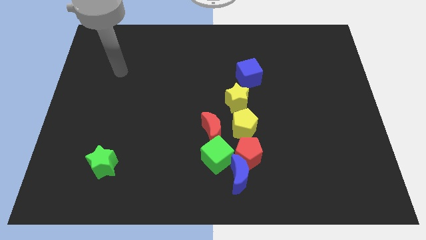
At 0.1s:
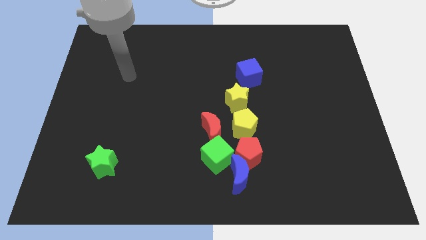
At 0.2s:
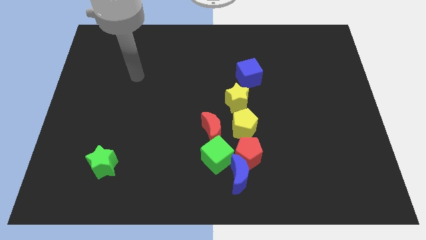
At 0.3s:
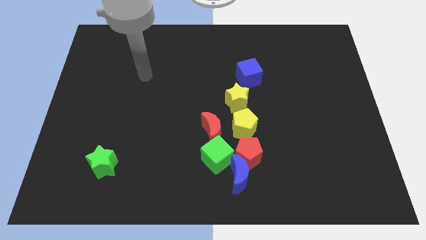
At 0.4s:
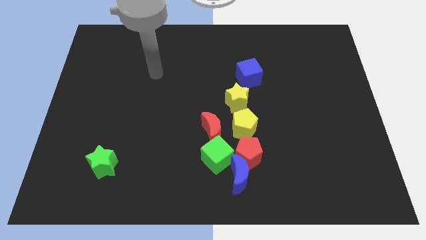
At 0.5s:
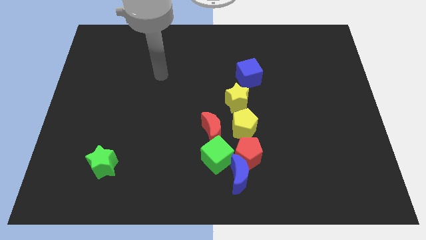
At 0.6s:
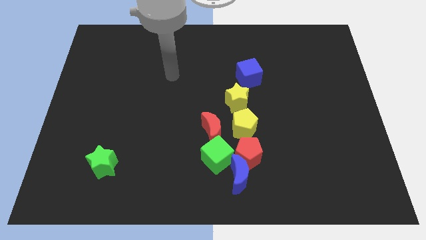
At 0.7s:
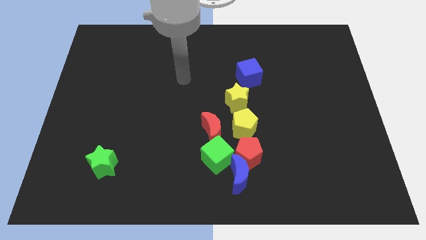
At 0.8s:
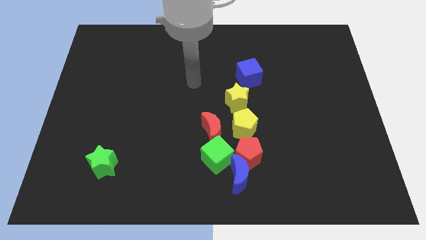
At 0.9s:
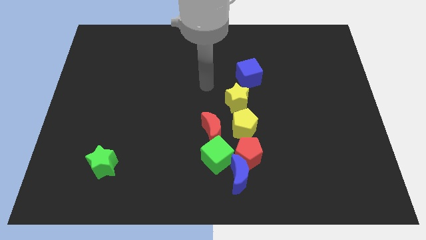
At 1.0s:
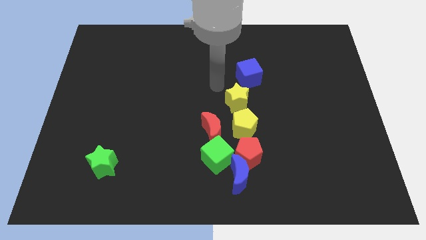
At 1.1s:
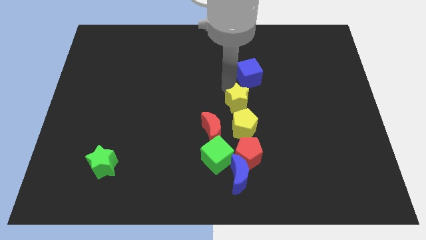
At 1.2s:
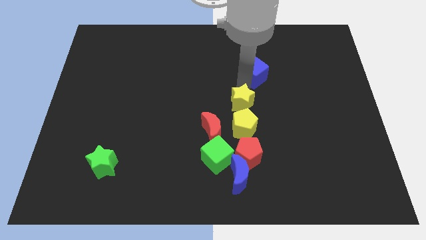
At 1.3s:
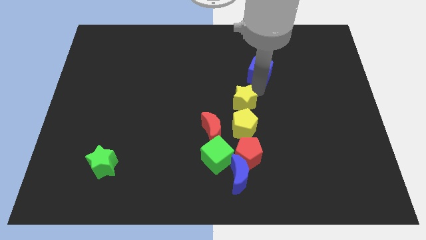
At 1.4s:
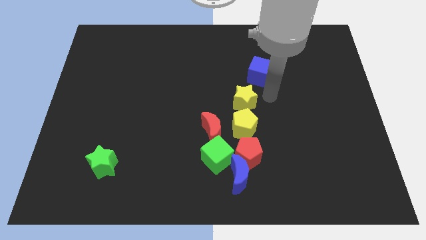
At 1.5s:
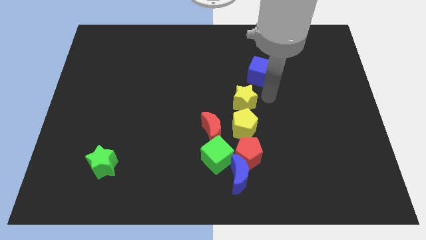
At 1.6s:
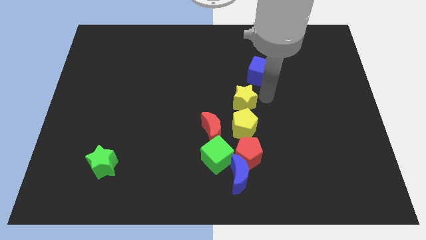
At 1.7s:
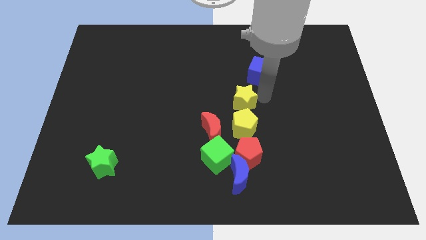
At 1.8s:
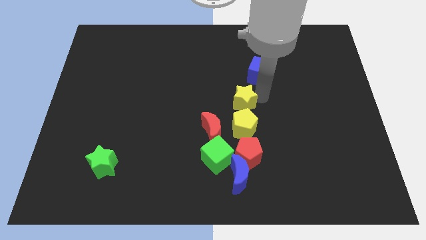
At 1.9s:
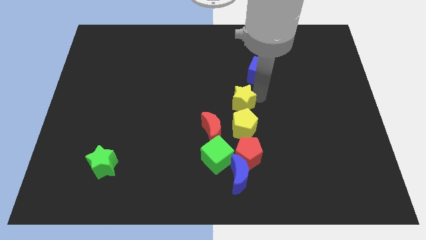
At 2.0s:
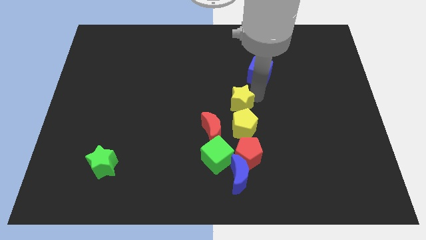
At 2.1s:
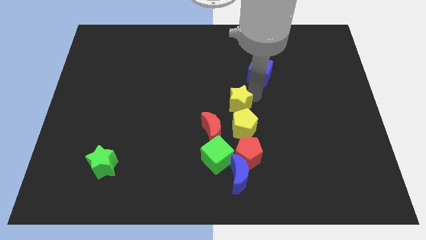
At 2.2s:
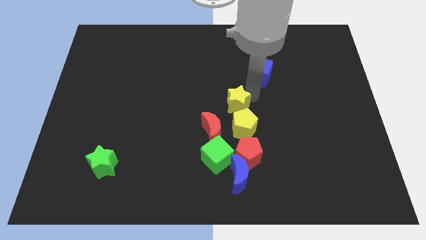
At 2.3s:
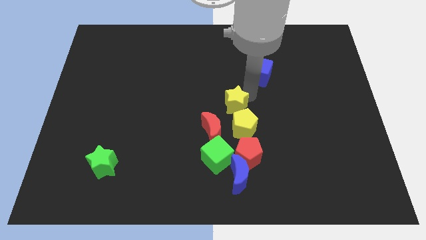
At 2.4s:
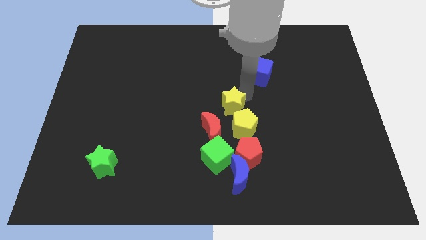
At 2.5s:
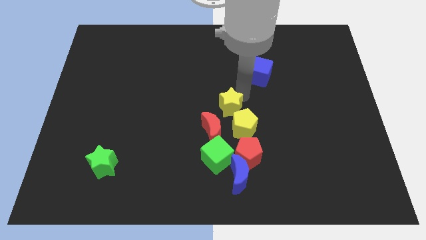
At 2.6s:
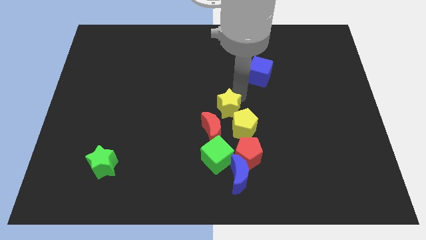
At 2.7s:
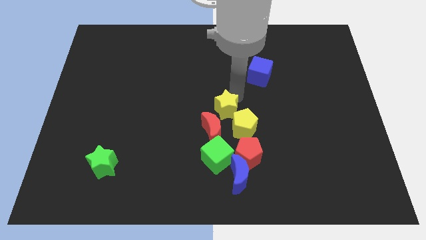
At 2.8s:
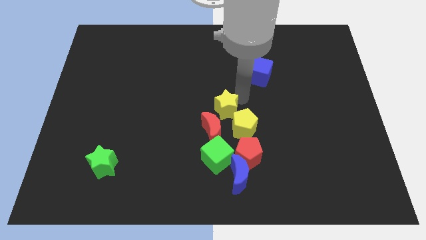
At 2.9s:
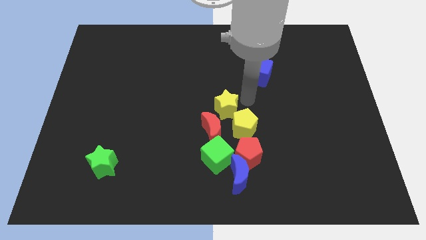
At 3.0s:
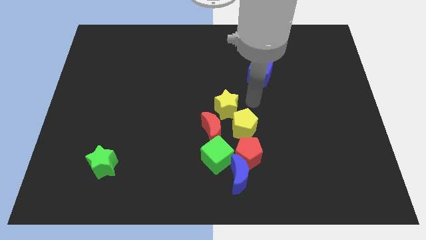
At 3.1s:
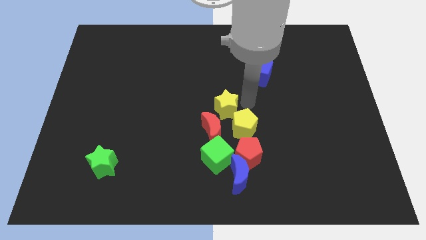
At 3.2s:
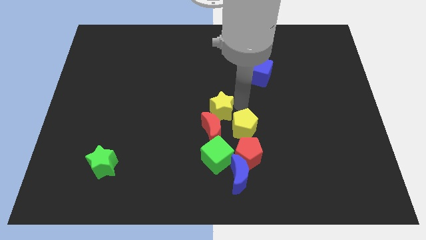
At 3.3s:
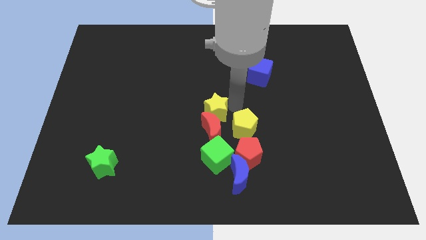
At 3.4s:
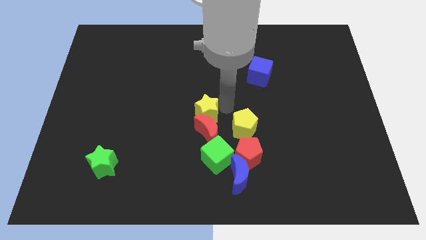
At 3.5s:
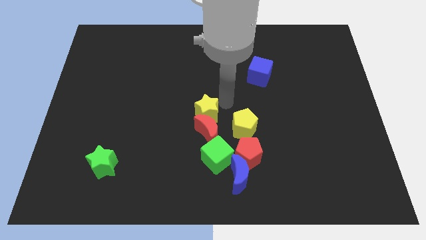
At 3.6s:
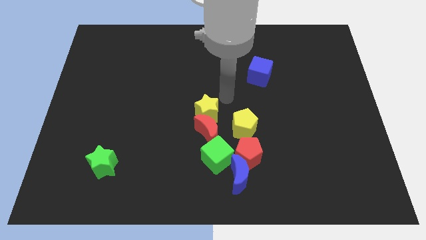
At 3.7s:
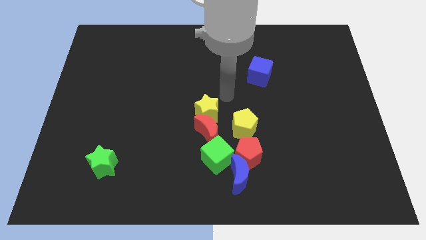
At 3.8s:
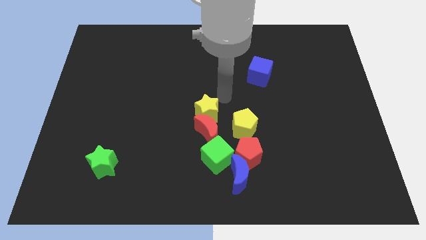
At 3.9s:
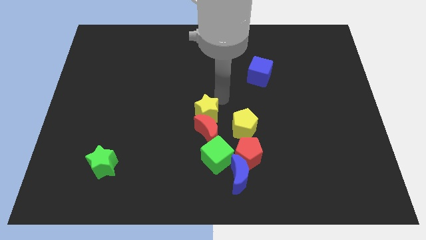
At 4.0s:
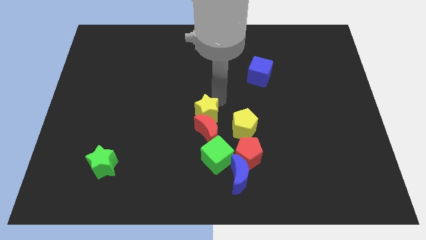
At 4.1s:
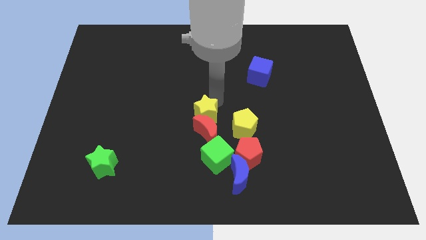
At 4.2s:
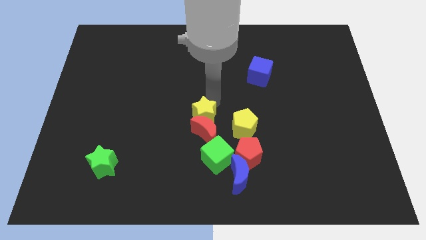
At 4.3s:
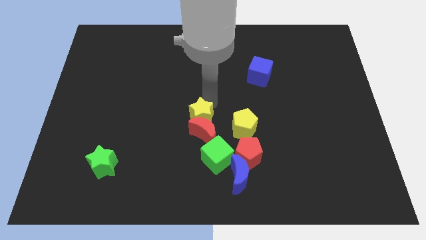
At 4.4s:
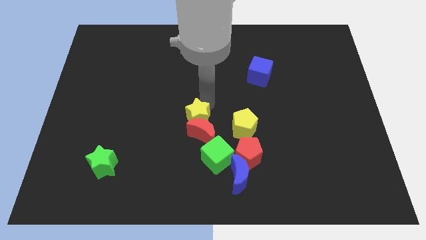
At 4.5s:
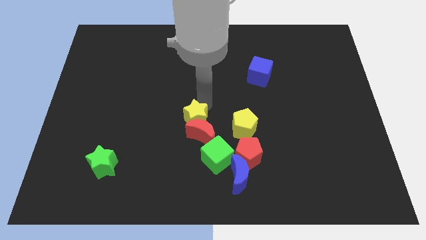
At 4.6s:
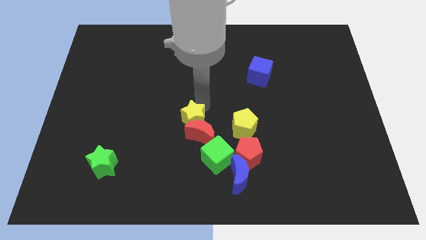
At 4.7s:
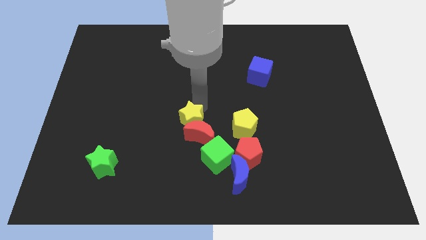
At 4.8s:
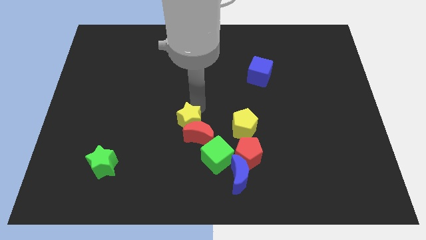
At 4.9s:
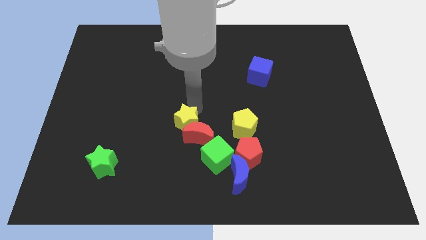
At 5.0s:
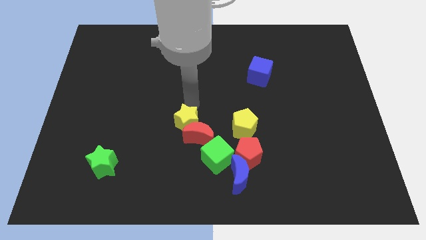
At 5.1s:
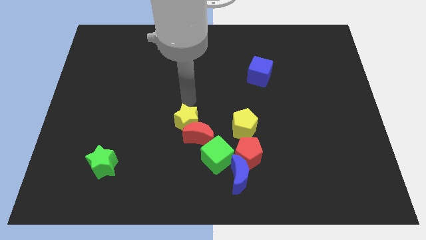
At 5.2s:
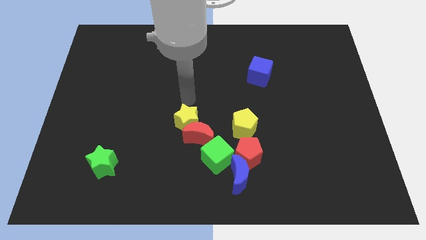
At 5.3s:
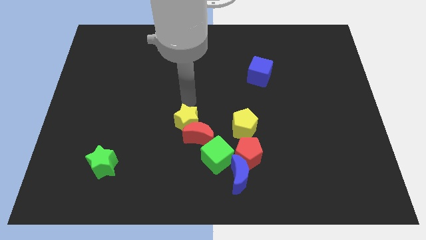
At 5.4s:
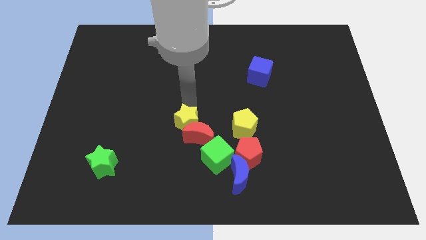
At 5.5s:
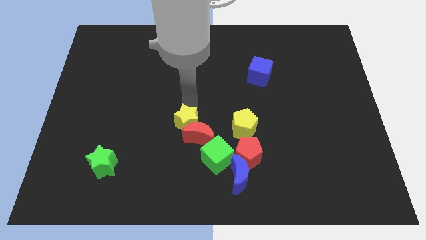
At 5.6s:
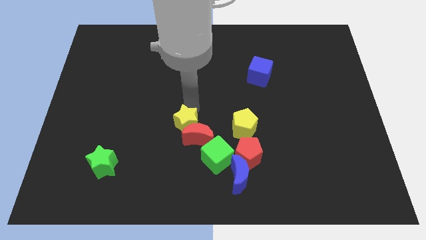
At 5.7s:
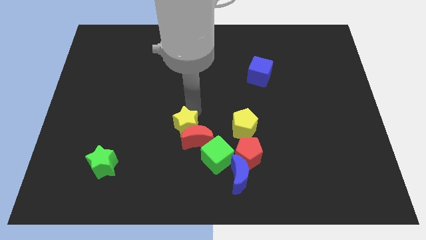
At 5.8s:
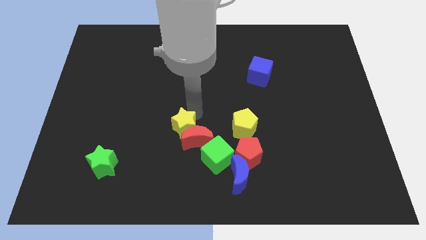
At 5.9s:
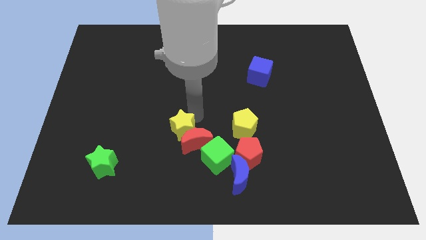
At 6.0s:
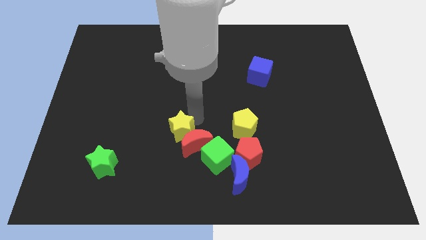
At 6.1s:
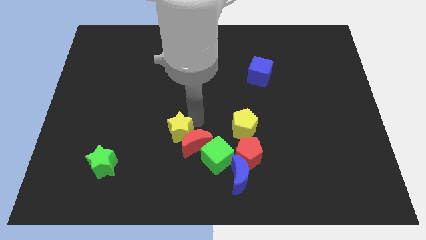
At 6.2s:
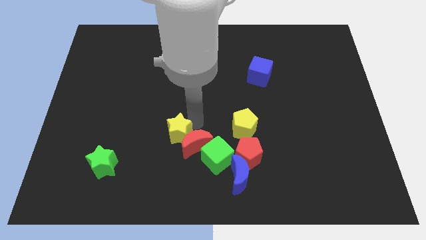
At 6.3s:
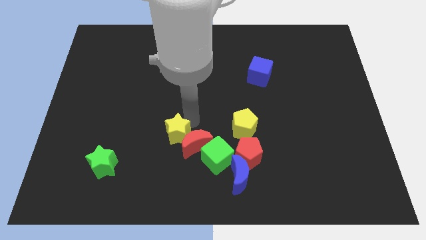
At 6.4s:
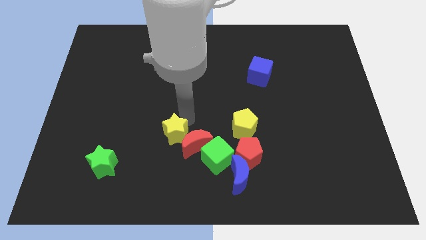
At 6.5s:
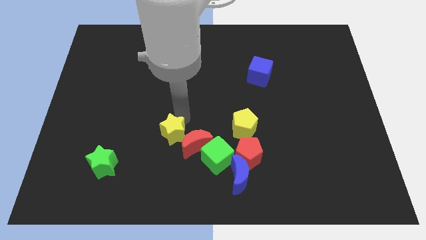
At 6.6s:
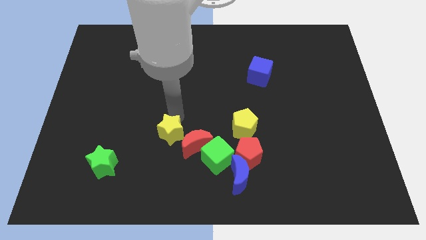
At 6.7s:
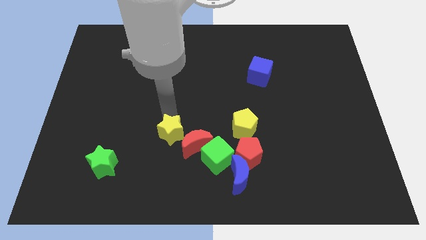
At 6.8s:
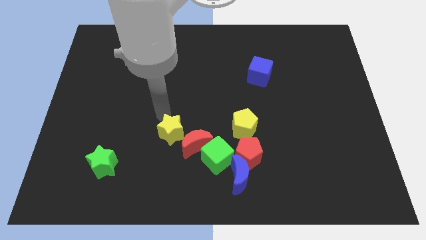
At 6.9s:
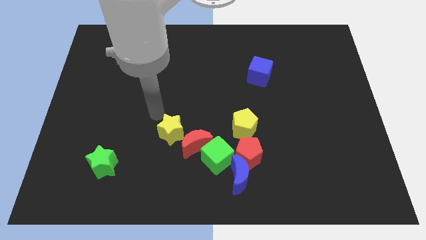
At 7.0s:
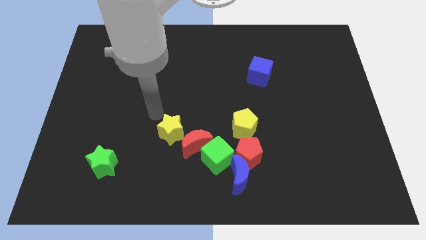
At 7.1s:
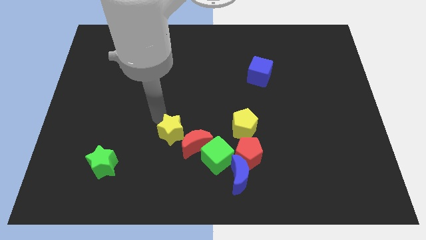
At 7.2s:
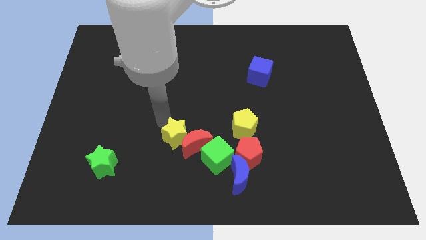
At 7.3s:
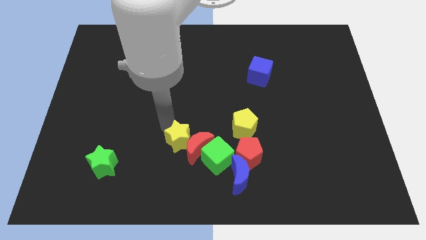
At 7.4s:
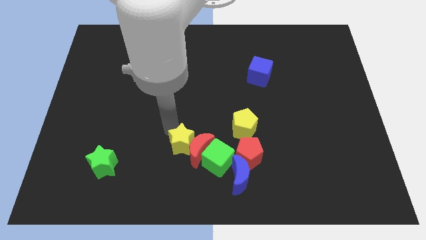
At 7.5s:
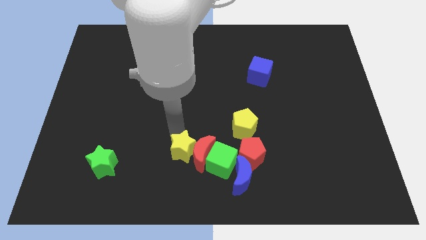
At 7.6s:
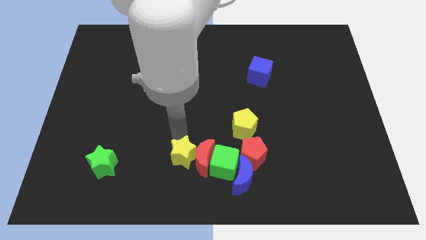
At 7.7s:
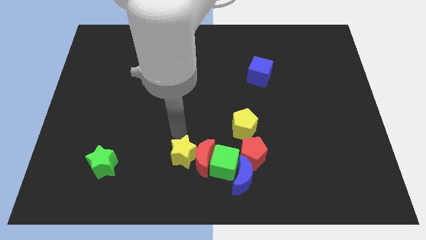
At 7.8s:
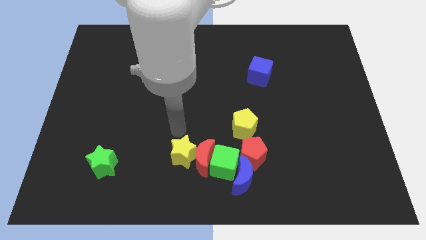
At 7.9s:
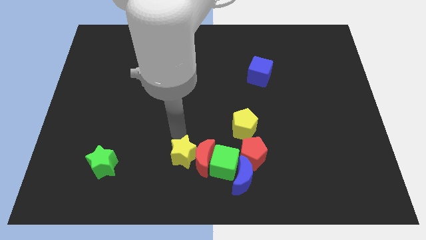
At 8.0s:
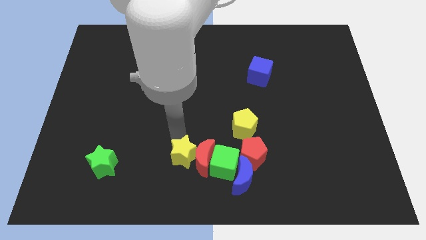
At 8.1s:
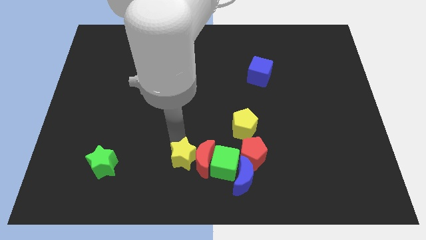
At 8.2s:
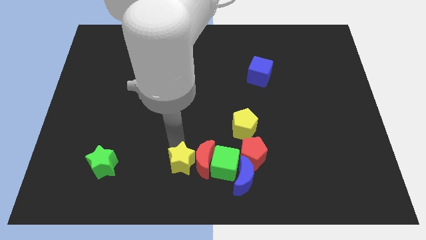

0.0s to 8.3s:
slide the yellow star to the bottom
